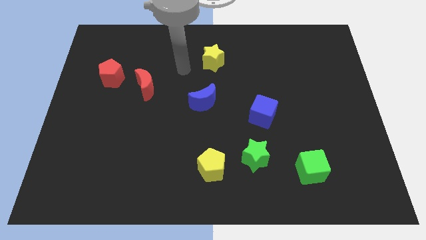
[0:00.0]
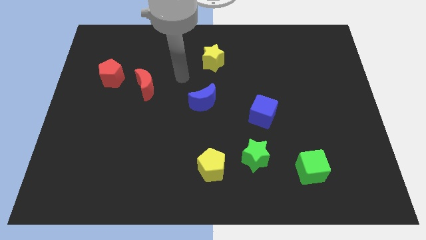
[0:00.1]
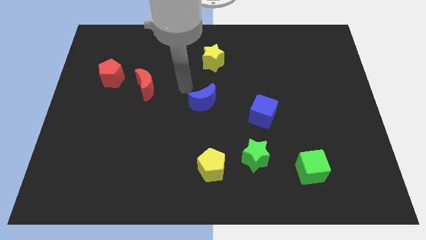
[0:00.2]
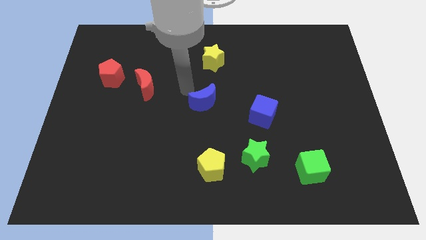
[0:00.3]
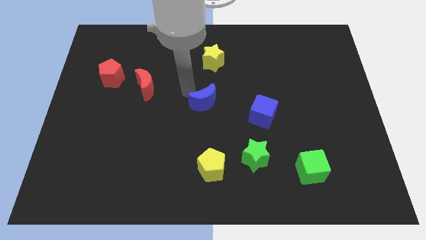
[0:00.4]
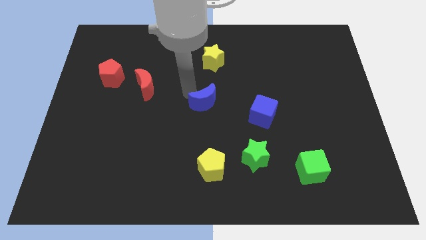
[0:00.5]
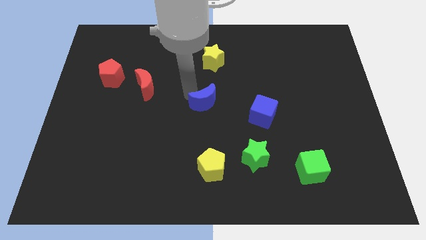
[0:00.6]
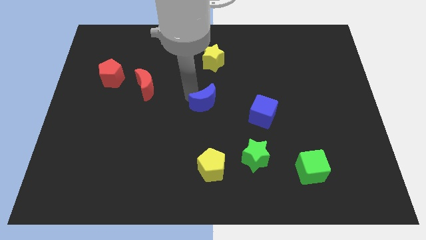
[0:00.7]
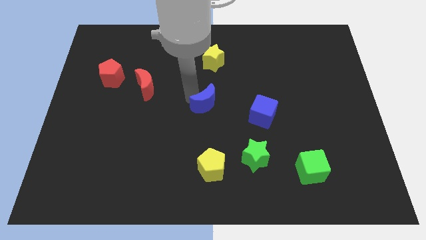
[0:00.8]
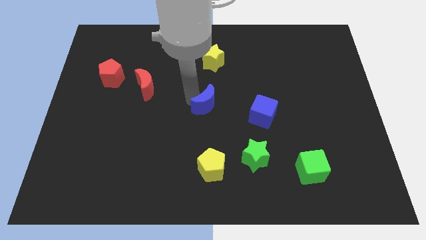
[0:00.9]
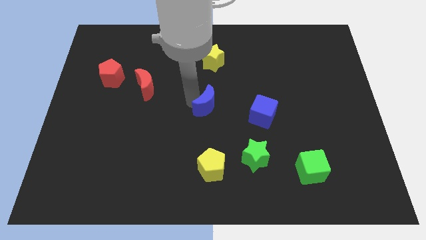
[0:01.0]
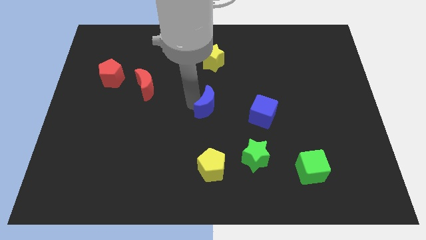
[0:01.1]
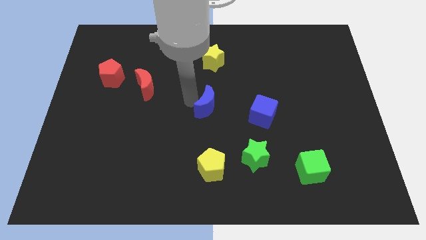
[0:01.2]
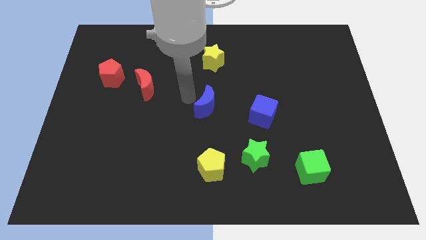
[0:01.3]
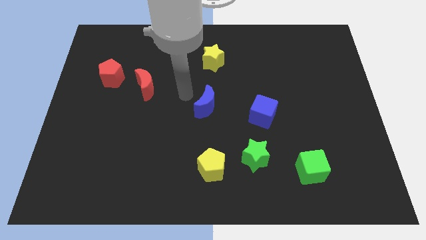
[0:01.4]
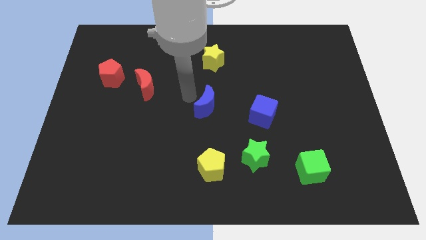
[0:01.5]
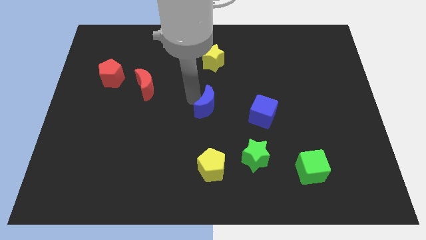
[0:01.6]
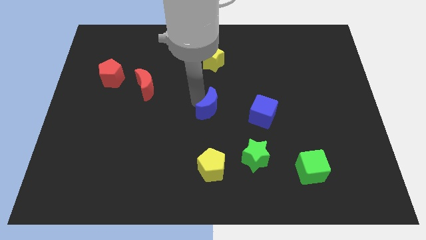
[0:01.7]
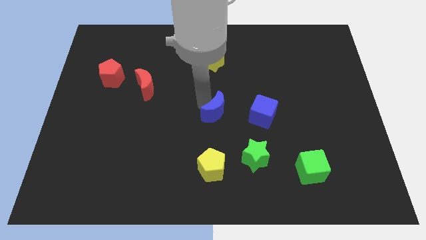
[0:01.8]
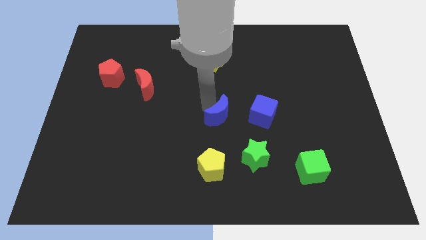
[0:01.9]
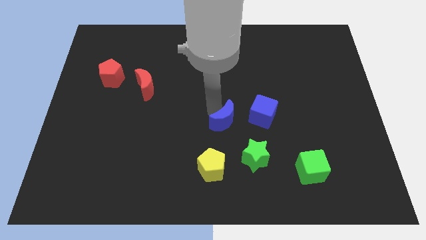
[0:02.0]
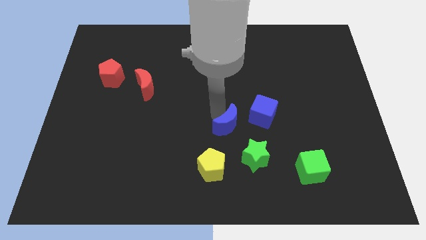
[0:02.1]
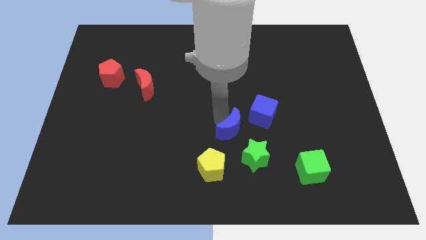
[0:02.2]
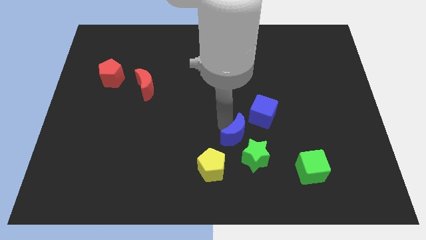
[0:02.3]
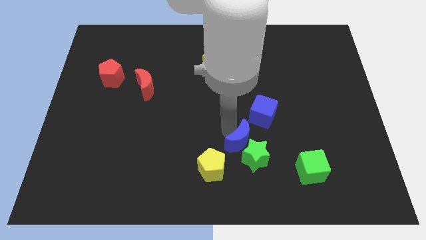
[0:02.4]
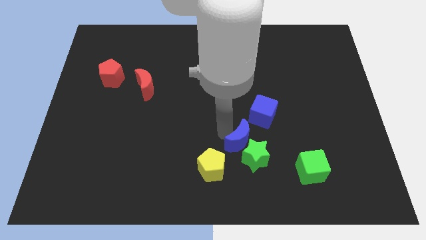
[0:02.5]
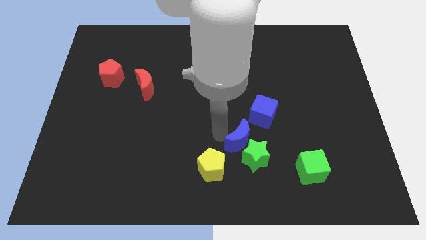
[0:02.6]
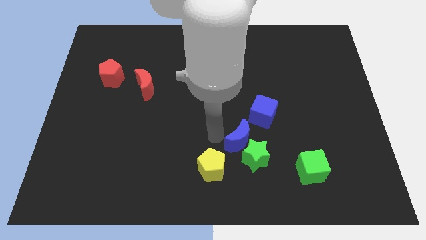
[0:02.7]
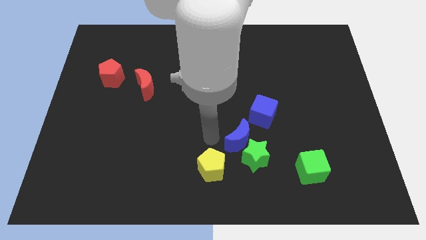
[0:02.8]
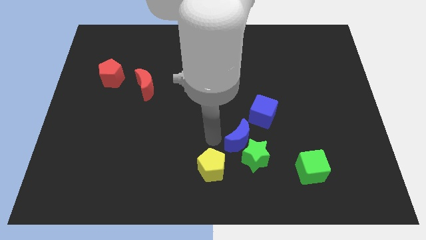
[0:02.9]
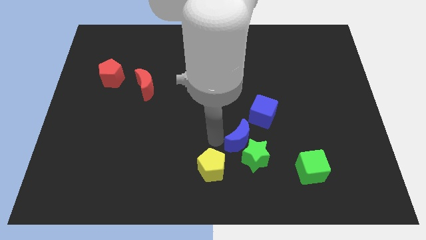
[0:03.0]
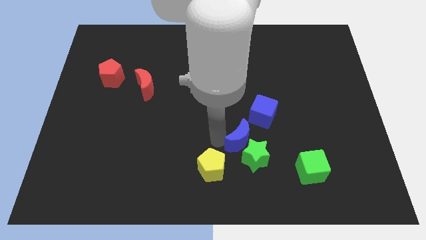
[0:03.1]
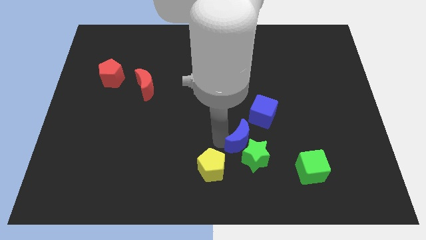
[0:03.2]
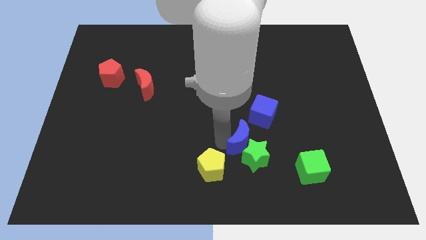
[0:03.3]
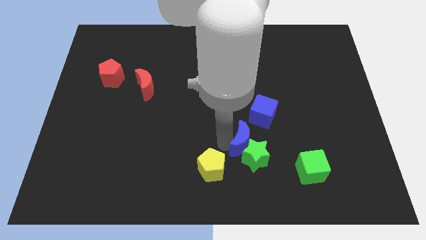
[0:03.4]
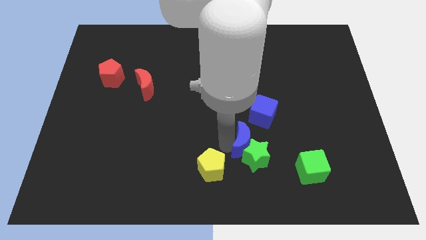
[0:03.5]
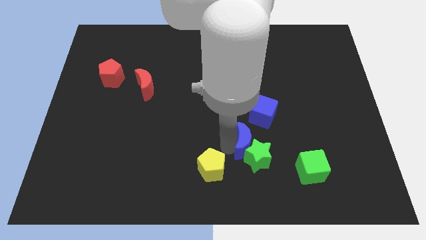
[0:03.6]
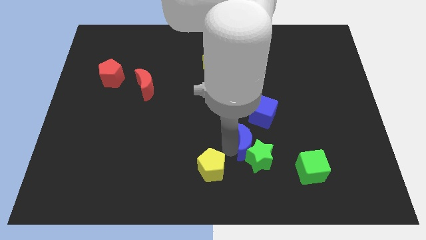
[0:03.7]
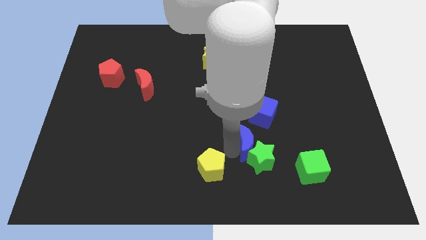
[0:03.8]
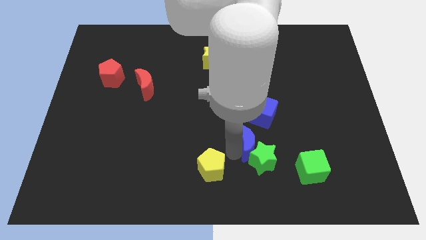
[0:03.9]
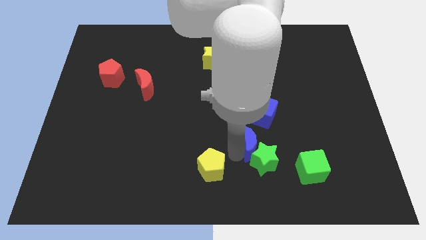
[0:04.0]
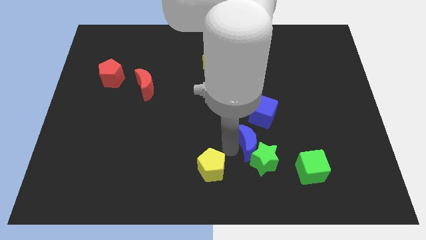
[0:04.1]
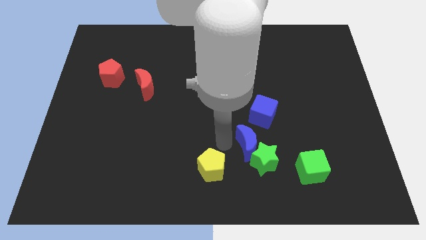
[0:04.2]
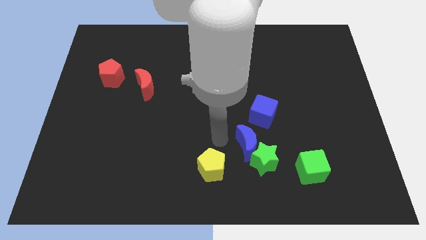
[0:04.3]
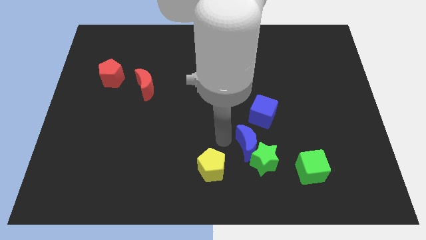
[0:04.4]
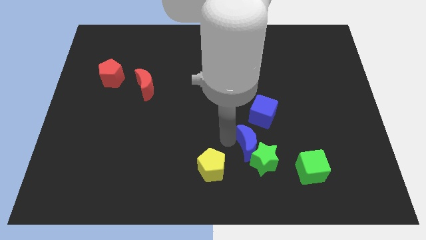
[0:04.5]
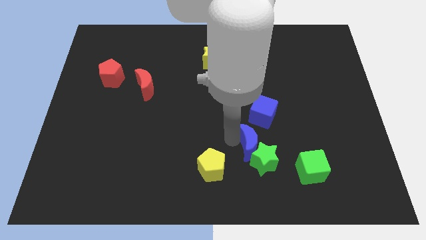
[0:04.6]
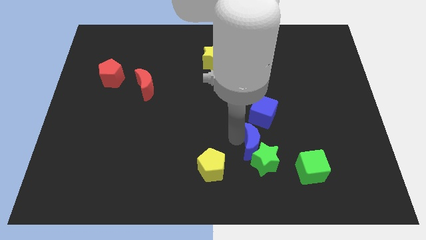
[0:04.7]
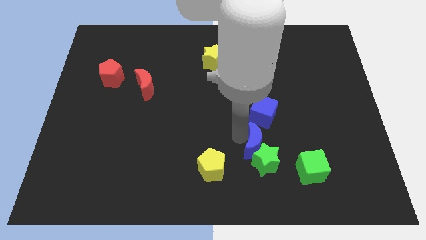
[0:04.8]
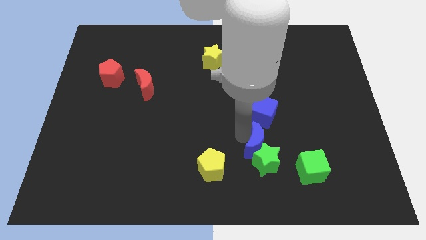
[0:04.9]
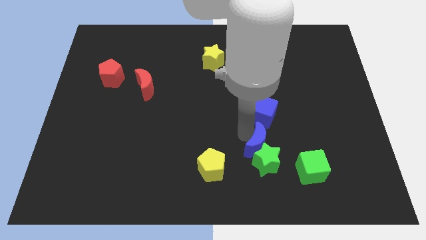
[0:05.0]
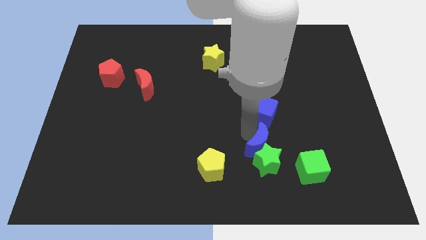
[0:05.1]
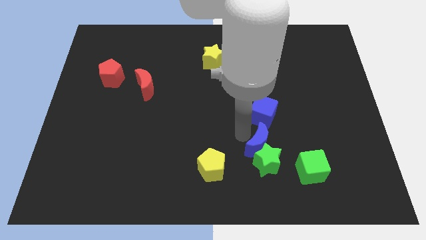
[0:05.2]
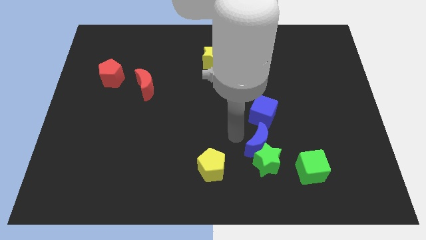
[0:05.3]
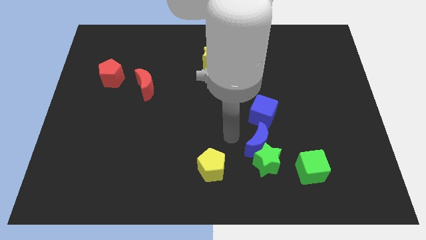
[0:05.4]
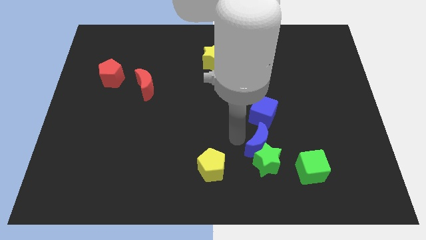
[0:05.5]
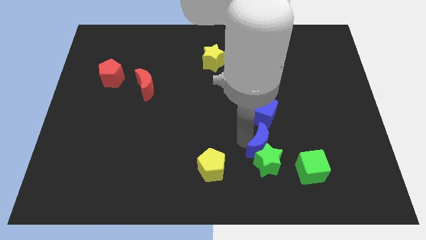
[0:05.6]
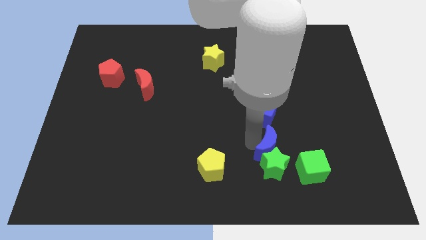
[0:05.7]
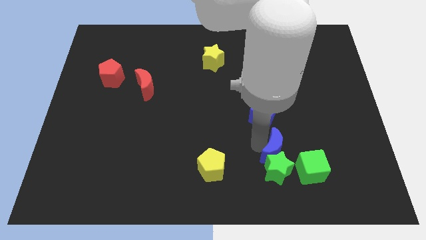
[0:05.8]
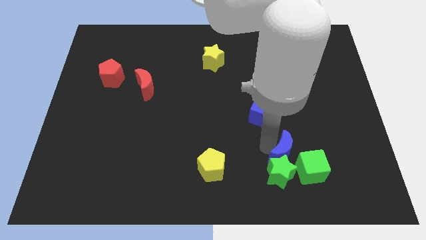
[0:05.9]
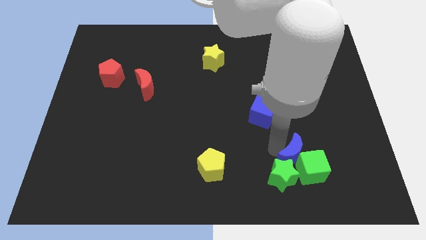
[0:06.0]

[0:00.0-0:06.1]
put the blue moon close to the green cube

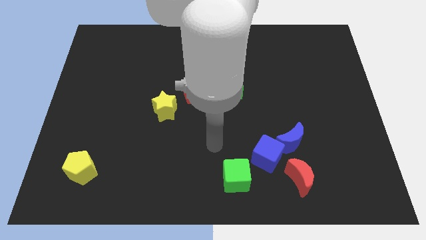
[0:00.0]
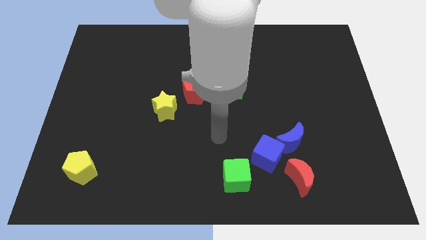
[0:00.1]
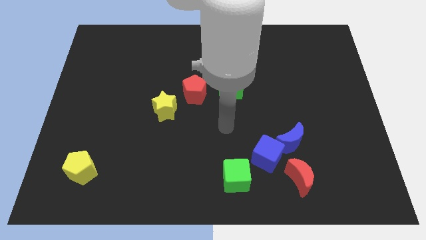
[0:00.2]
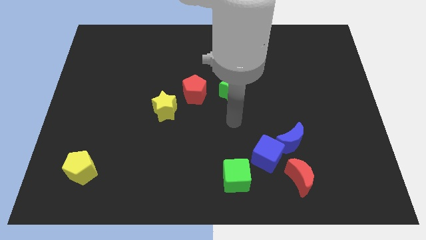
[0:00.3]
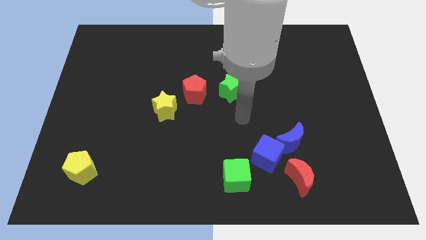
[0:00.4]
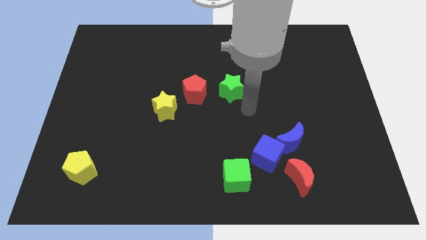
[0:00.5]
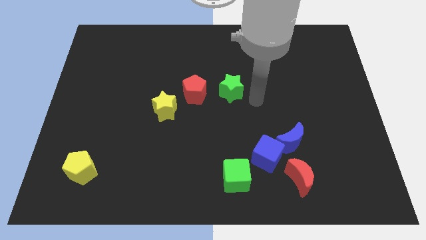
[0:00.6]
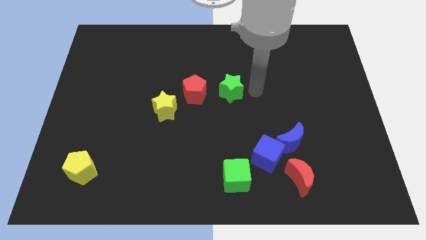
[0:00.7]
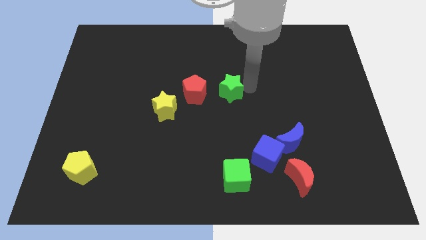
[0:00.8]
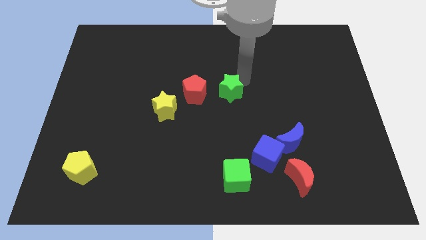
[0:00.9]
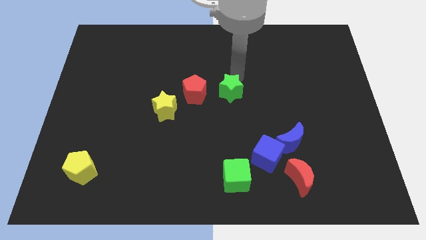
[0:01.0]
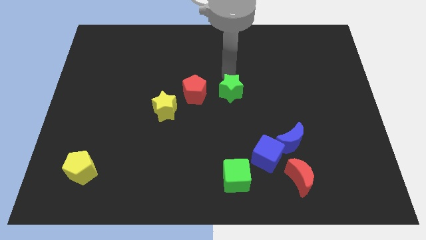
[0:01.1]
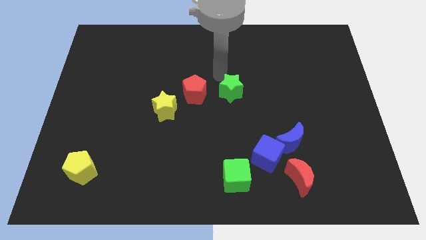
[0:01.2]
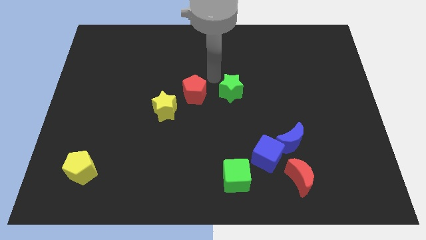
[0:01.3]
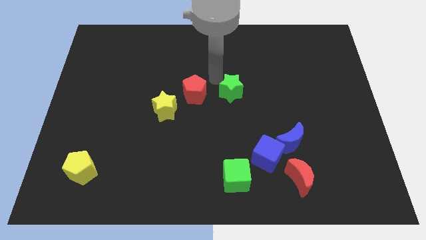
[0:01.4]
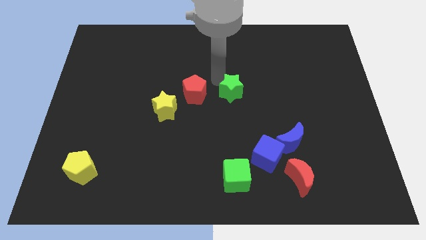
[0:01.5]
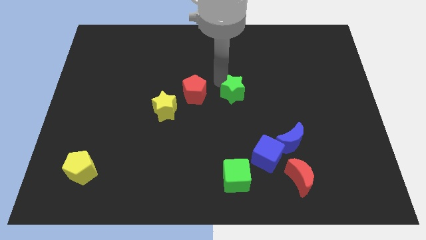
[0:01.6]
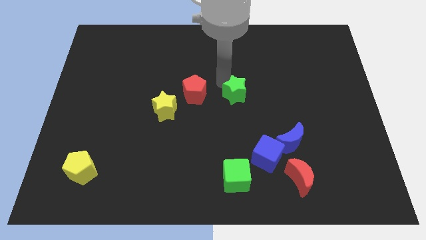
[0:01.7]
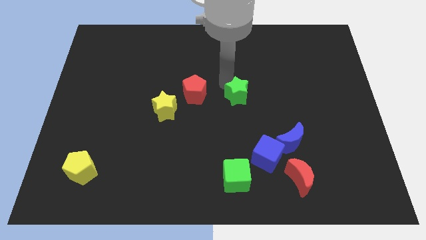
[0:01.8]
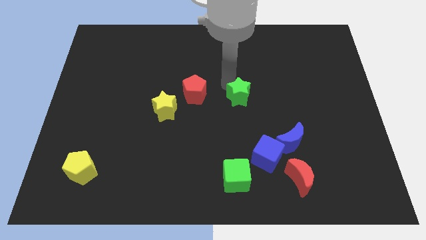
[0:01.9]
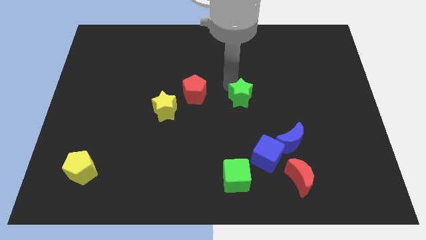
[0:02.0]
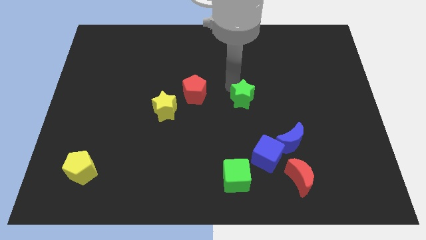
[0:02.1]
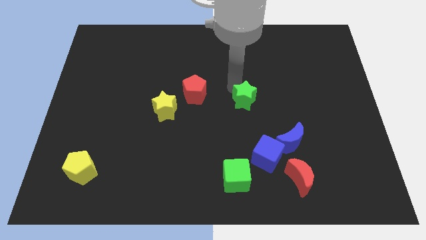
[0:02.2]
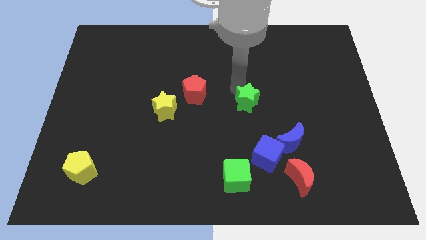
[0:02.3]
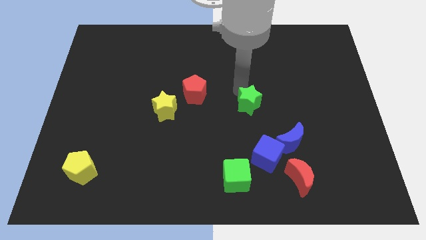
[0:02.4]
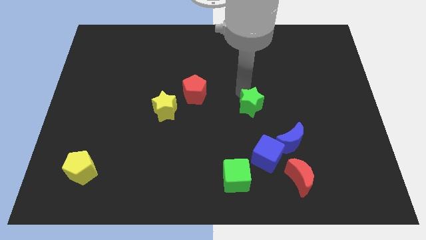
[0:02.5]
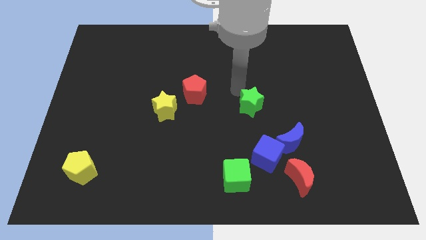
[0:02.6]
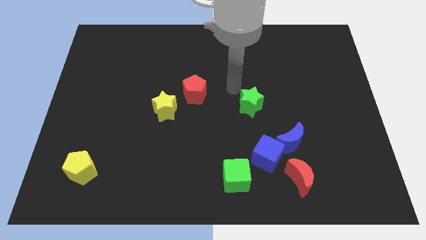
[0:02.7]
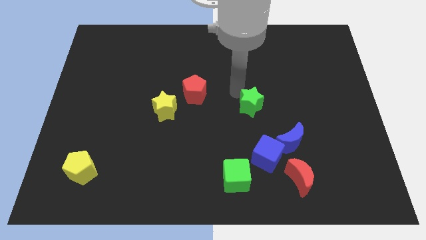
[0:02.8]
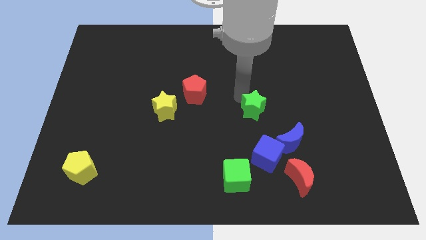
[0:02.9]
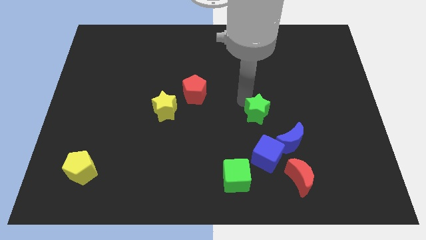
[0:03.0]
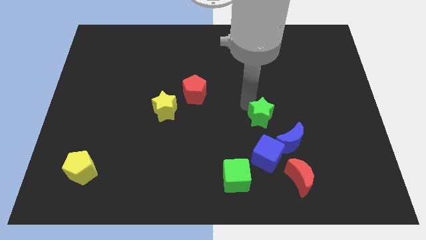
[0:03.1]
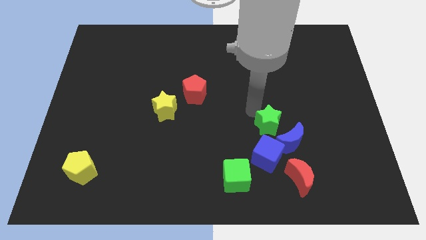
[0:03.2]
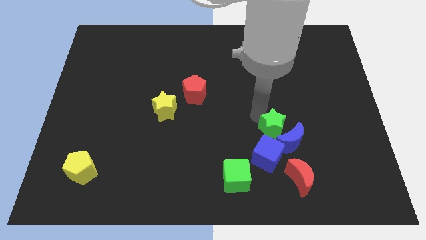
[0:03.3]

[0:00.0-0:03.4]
push the green star next to the blue moon
